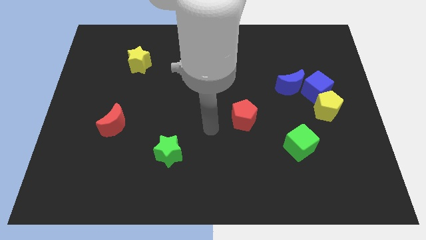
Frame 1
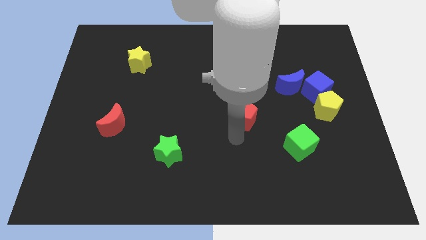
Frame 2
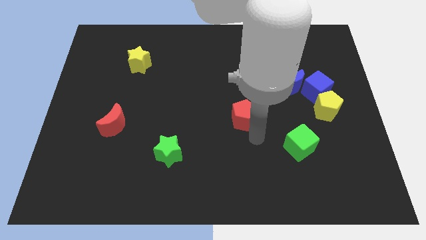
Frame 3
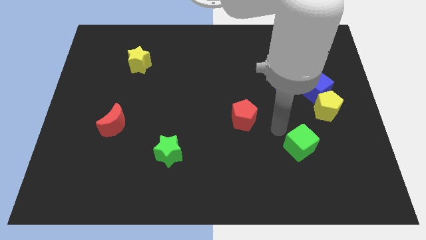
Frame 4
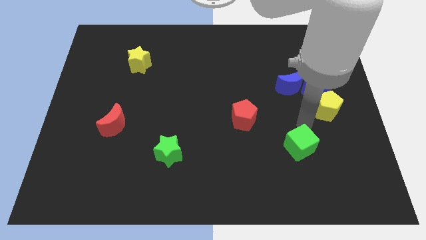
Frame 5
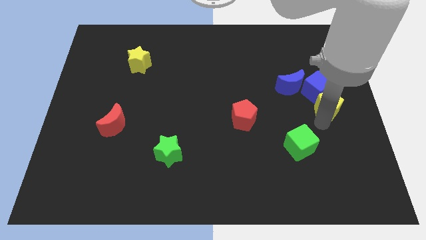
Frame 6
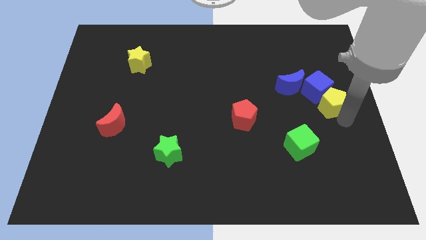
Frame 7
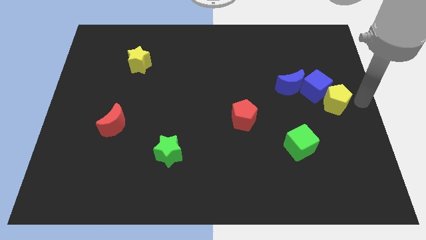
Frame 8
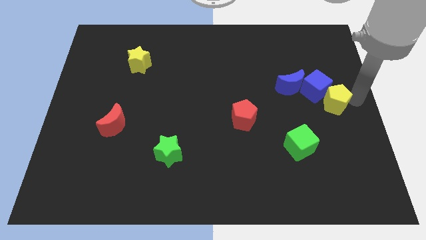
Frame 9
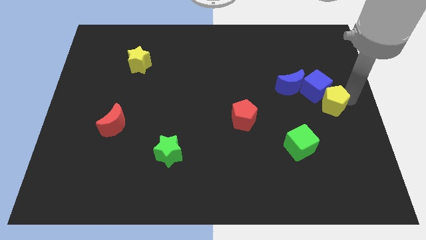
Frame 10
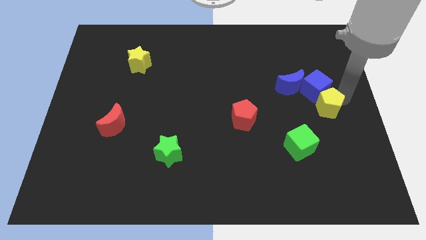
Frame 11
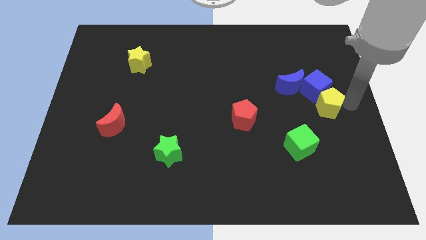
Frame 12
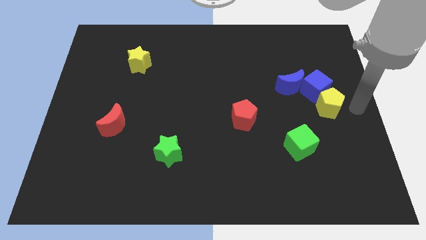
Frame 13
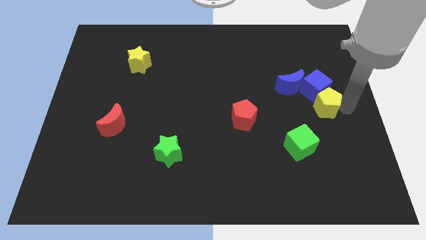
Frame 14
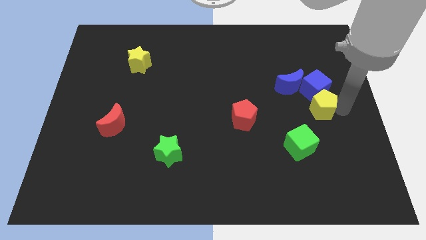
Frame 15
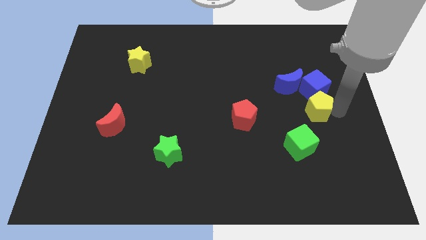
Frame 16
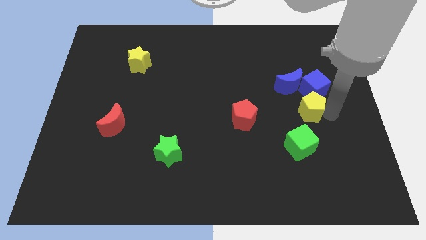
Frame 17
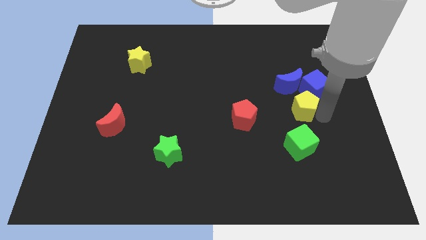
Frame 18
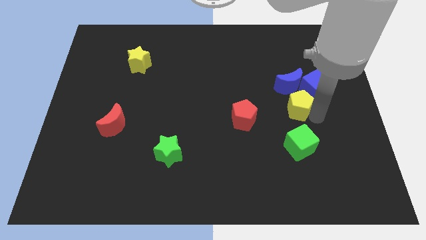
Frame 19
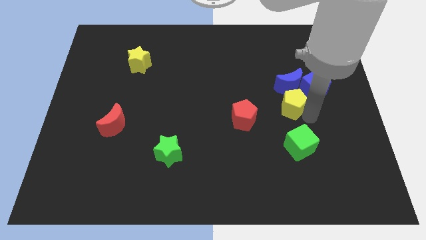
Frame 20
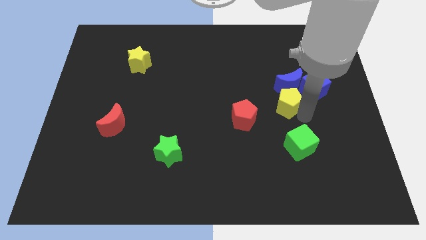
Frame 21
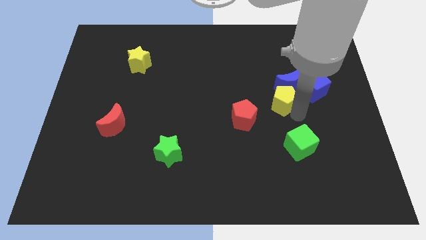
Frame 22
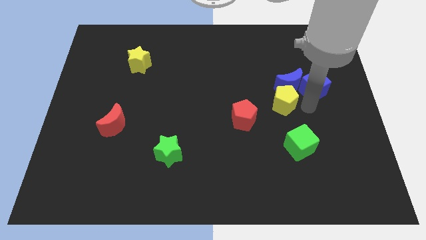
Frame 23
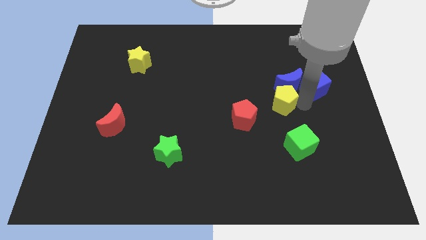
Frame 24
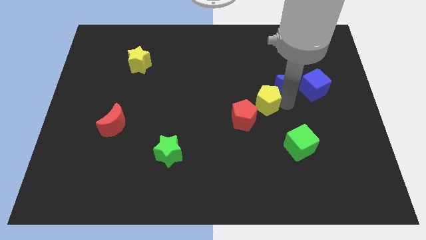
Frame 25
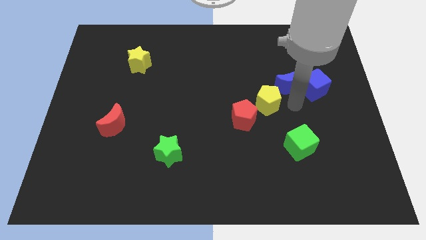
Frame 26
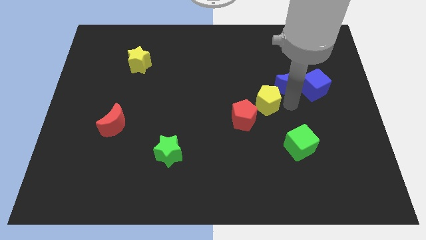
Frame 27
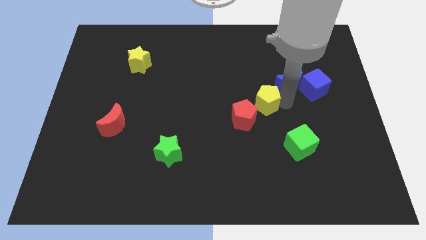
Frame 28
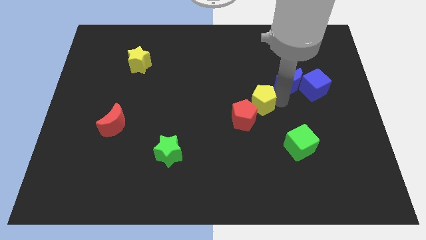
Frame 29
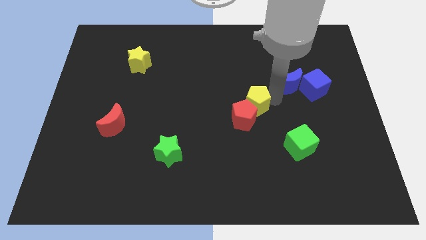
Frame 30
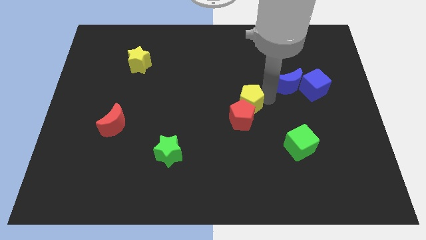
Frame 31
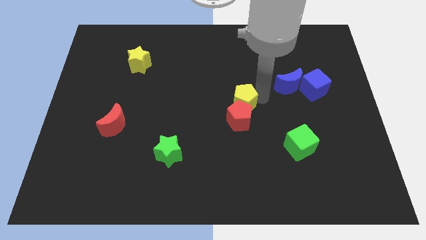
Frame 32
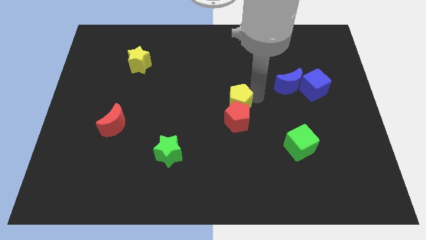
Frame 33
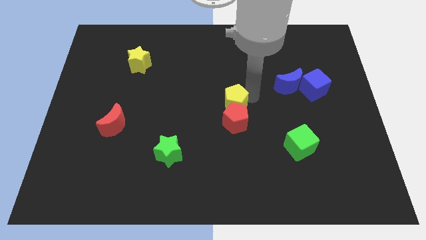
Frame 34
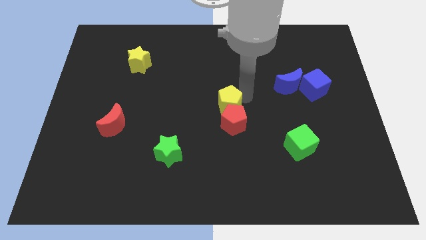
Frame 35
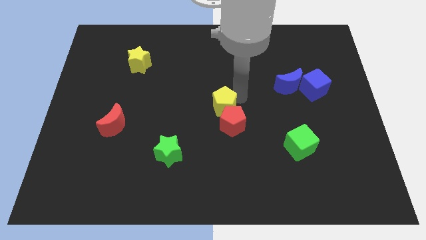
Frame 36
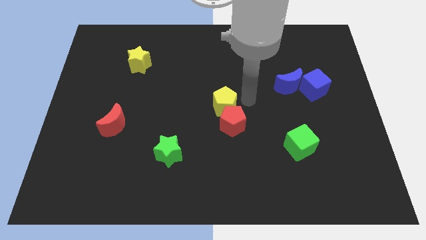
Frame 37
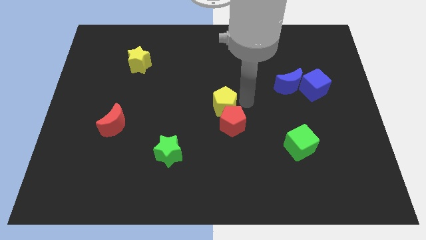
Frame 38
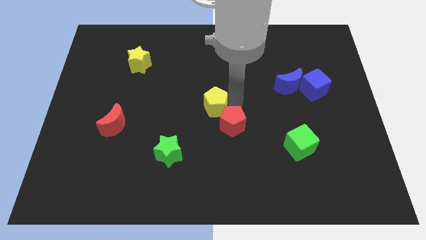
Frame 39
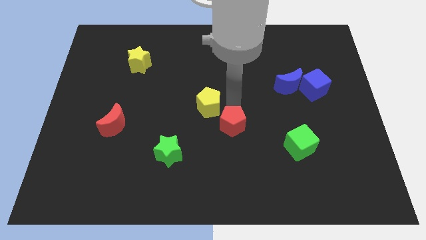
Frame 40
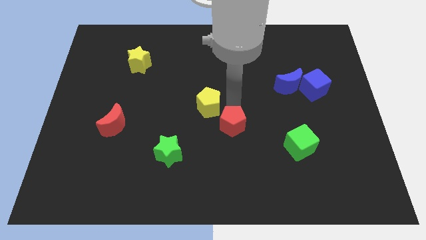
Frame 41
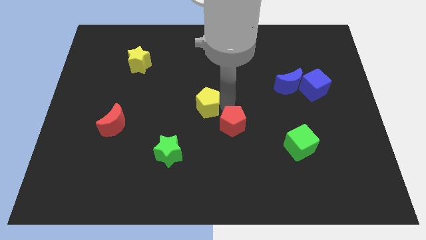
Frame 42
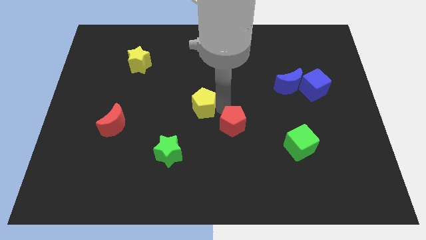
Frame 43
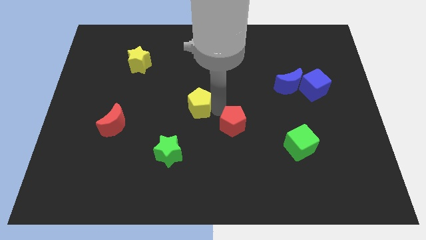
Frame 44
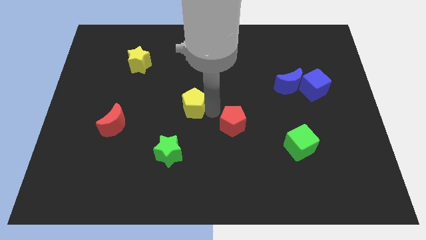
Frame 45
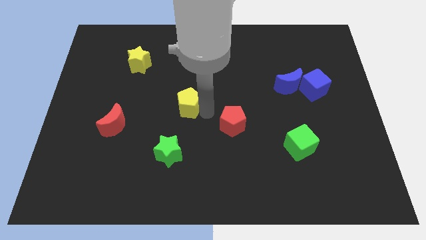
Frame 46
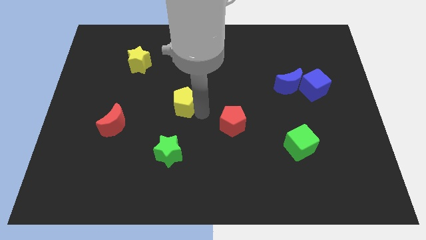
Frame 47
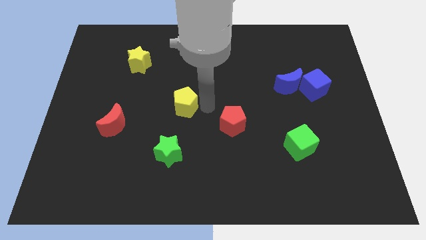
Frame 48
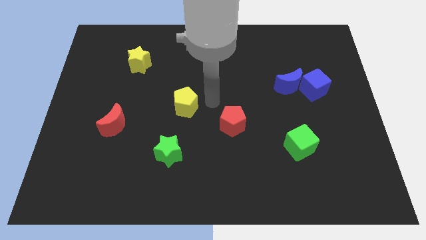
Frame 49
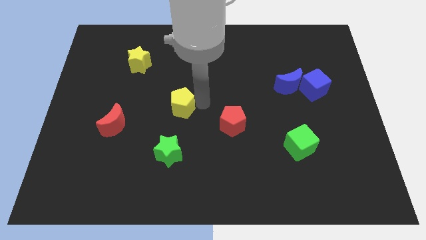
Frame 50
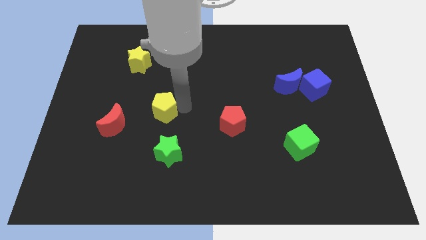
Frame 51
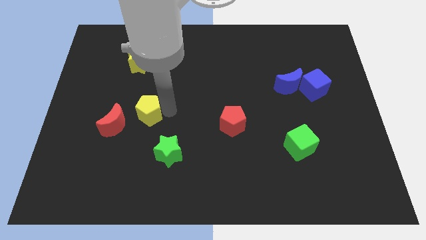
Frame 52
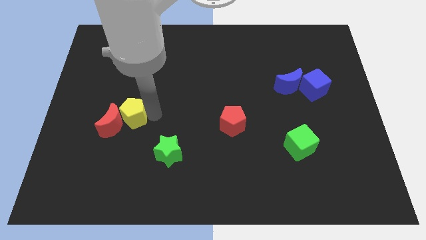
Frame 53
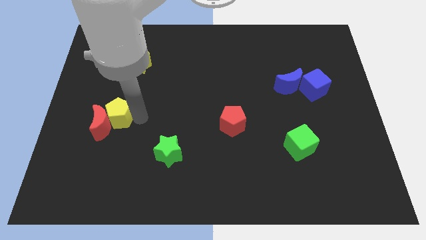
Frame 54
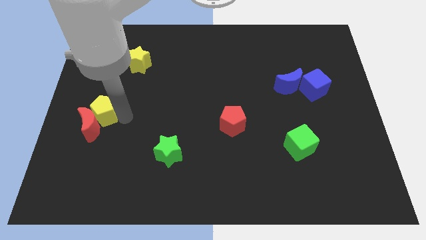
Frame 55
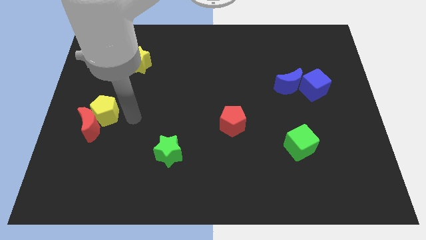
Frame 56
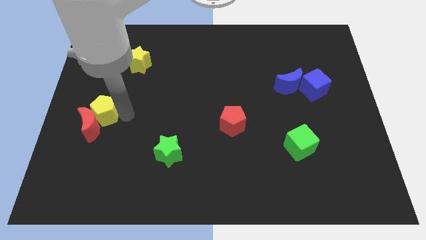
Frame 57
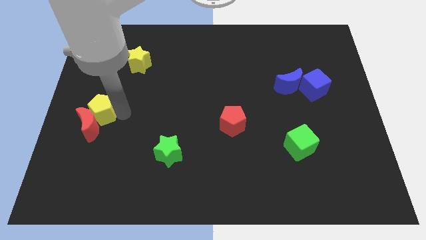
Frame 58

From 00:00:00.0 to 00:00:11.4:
push the yellow pentagon diagonally up and to the left of the red moon

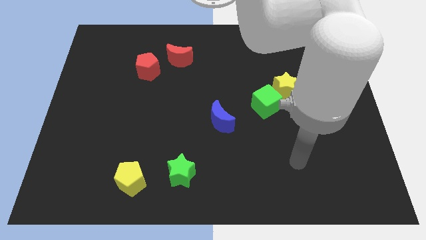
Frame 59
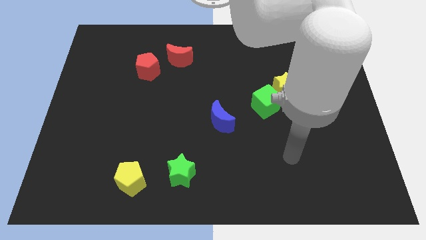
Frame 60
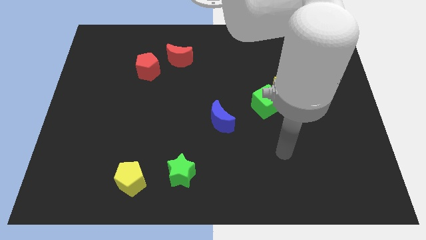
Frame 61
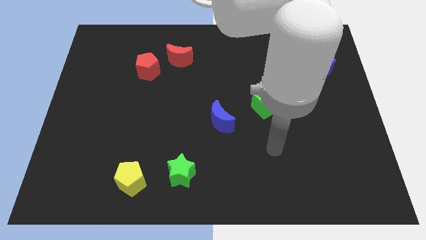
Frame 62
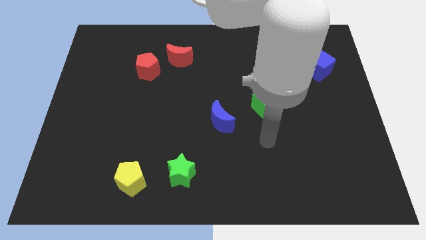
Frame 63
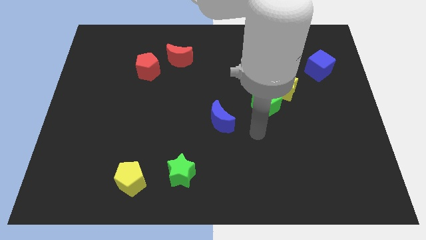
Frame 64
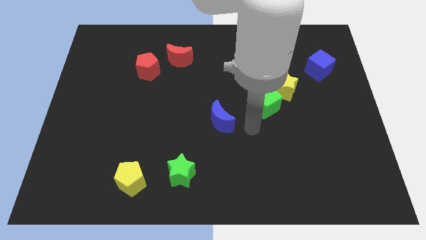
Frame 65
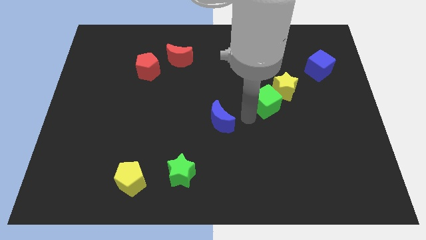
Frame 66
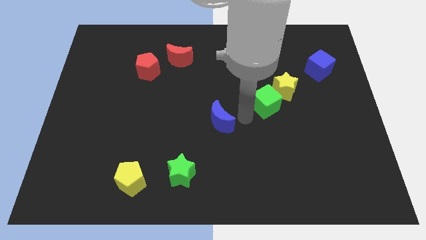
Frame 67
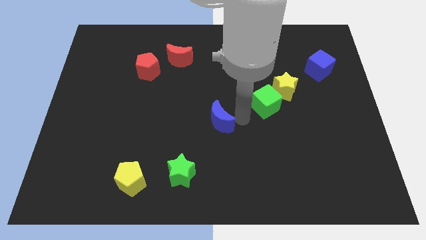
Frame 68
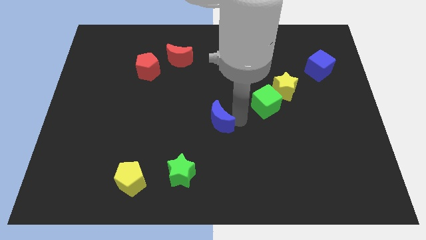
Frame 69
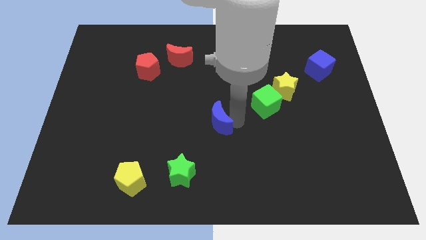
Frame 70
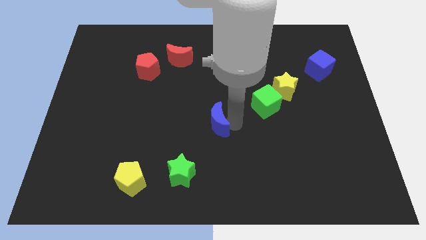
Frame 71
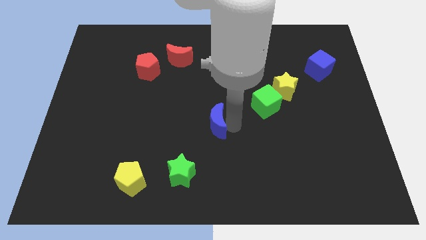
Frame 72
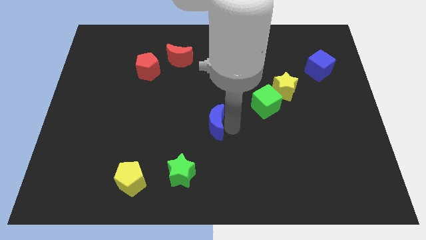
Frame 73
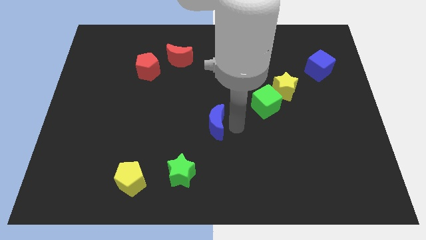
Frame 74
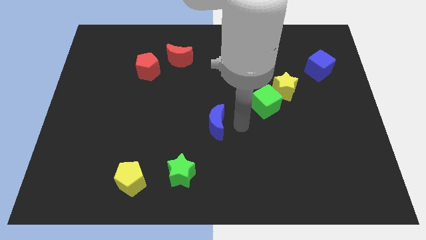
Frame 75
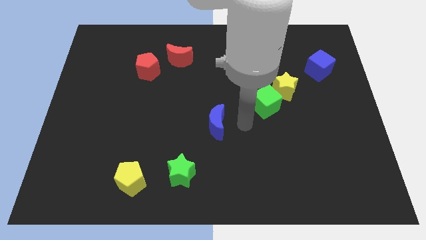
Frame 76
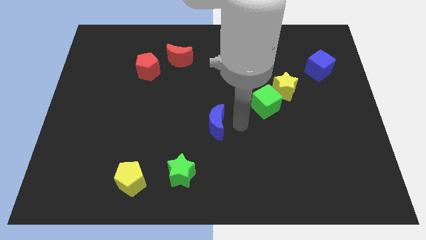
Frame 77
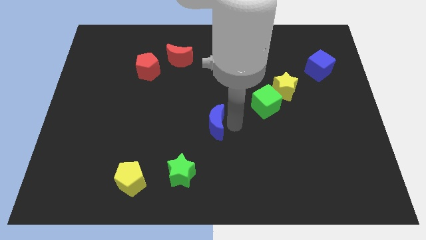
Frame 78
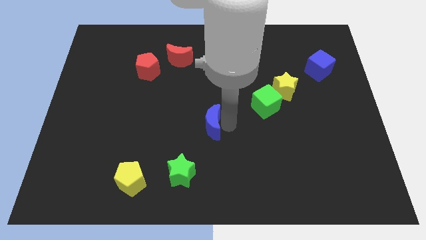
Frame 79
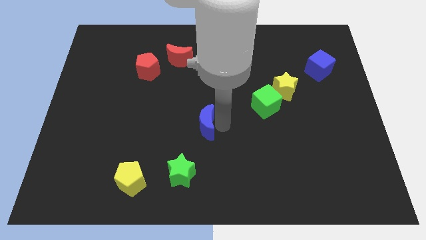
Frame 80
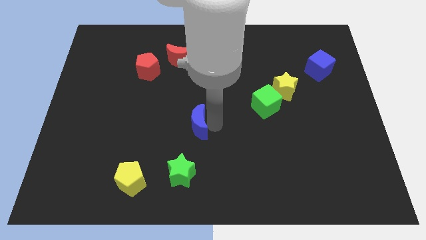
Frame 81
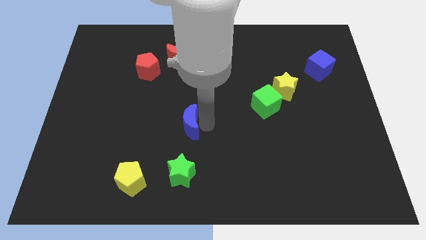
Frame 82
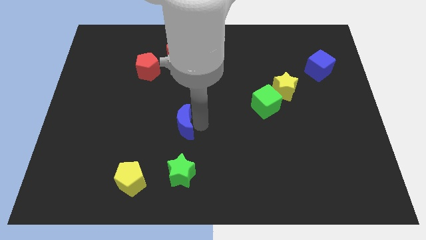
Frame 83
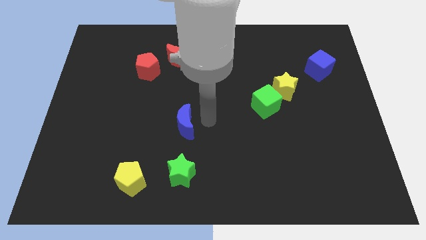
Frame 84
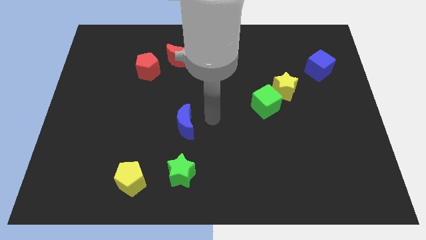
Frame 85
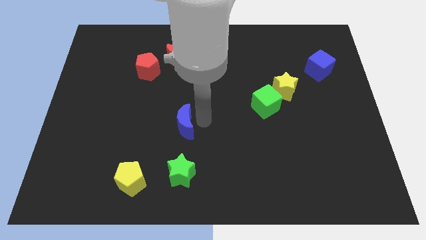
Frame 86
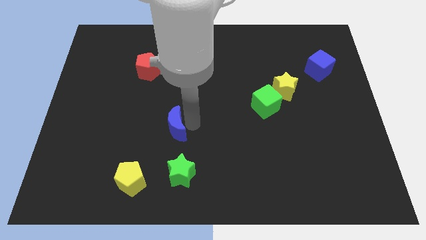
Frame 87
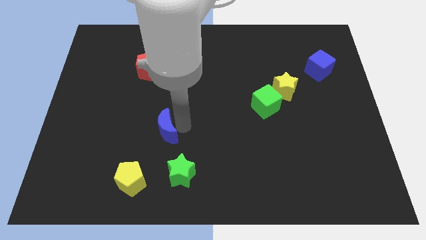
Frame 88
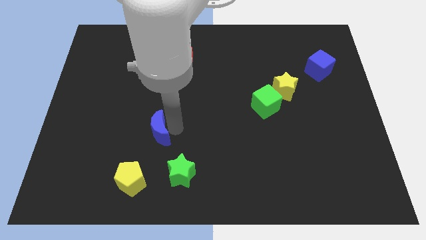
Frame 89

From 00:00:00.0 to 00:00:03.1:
push the blue moon above the yellow pentagon
